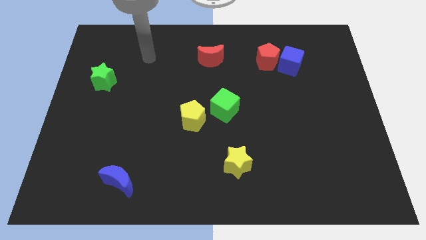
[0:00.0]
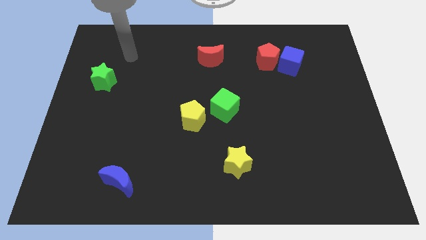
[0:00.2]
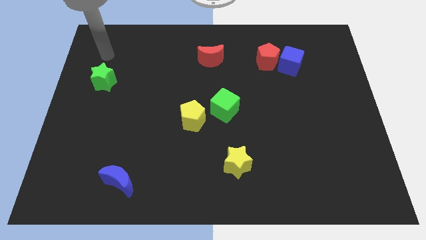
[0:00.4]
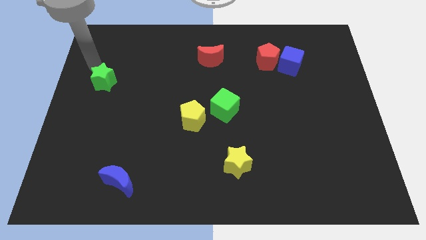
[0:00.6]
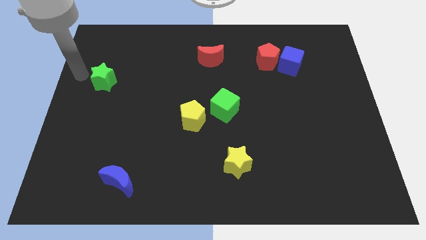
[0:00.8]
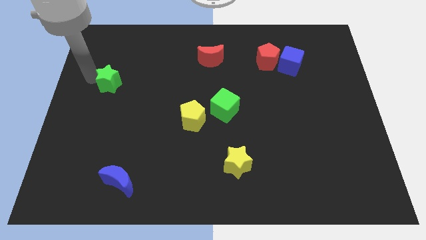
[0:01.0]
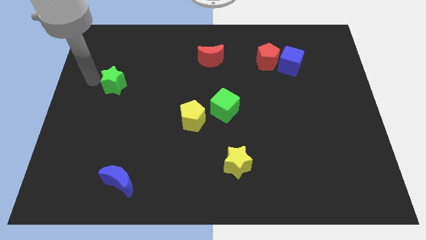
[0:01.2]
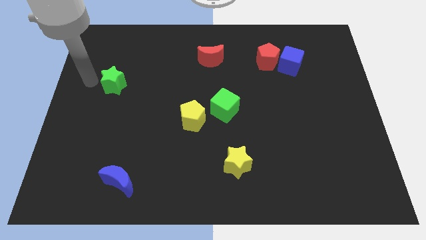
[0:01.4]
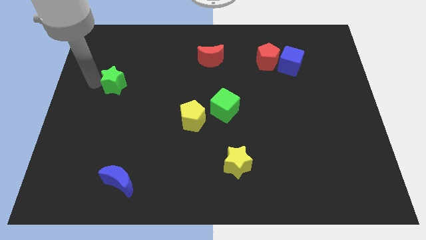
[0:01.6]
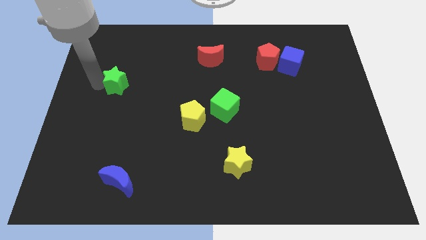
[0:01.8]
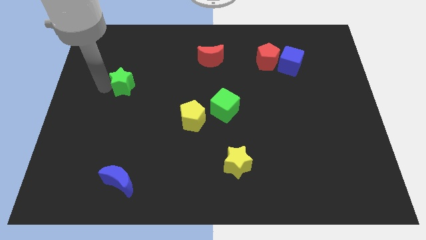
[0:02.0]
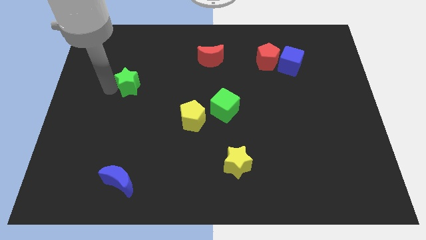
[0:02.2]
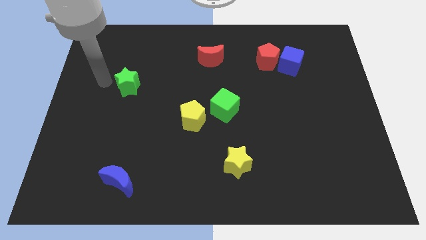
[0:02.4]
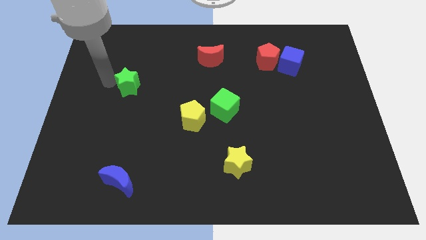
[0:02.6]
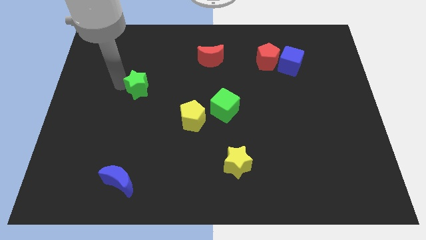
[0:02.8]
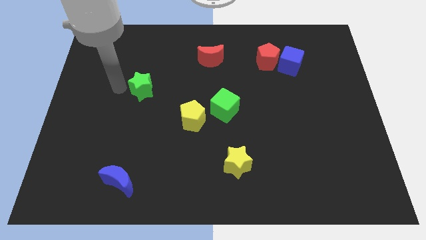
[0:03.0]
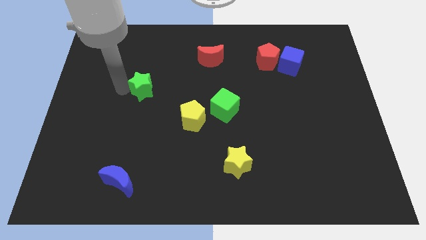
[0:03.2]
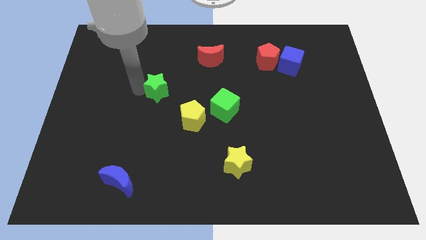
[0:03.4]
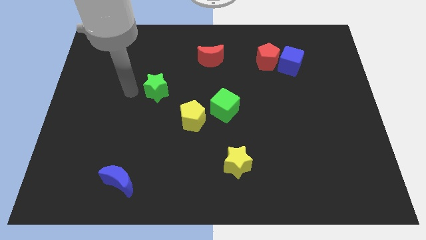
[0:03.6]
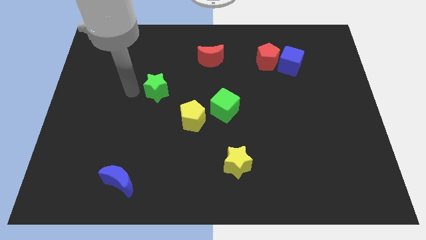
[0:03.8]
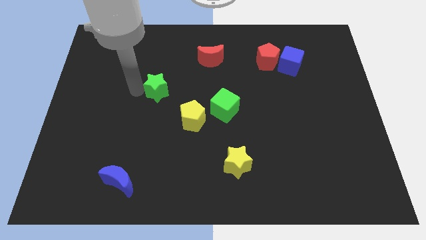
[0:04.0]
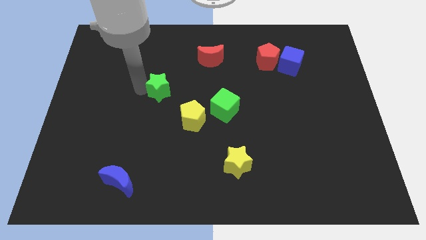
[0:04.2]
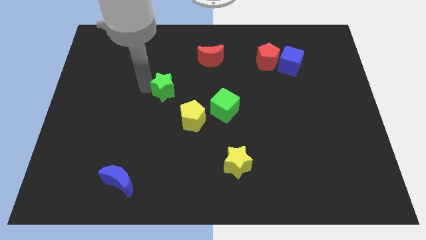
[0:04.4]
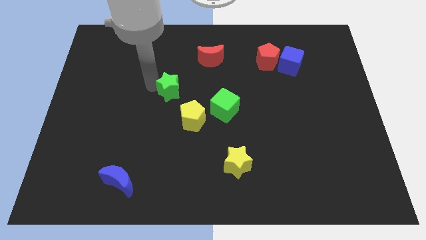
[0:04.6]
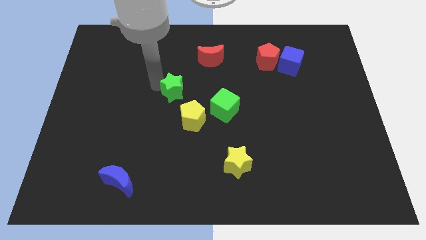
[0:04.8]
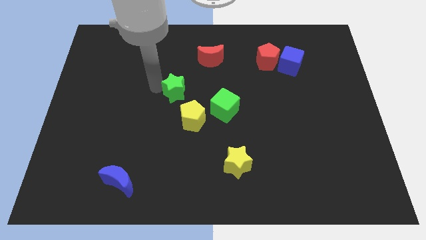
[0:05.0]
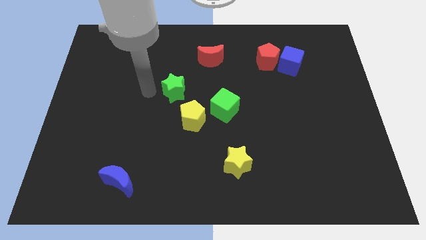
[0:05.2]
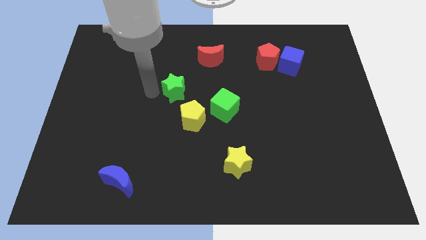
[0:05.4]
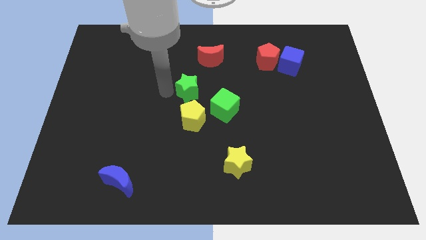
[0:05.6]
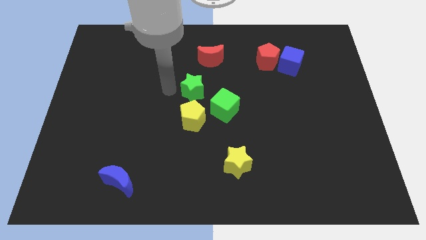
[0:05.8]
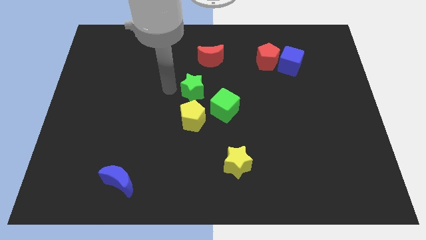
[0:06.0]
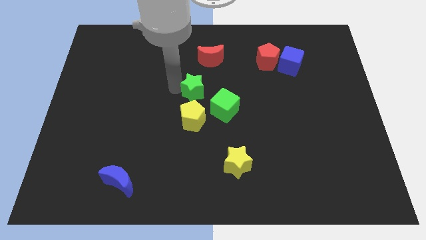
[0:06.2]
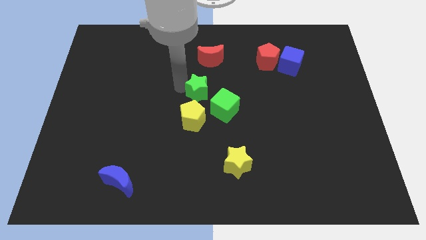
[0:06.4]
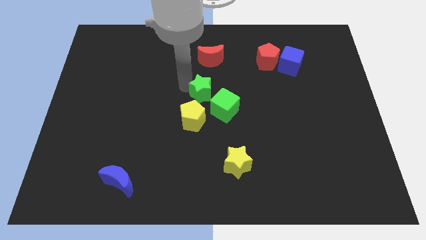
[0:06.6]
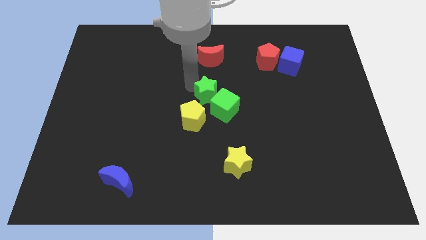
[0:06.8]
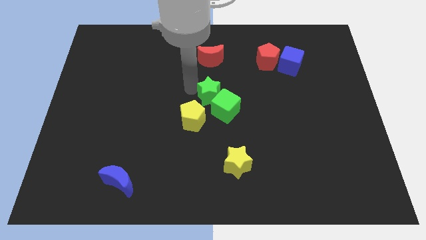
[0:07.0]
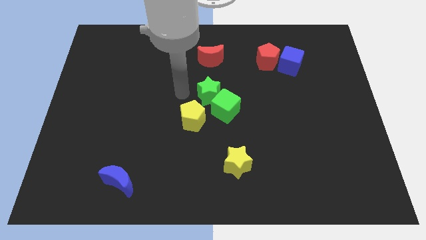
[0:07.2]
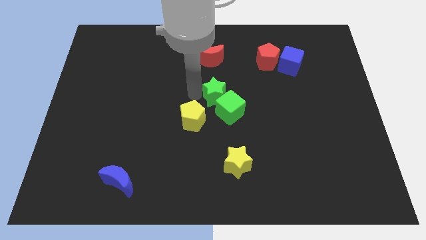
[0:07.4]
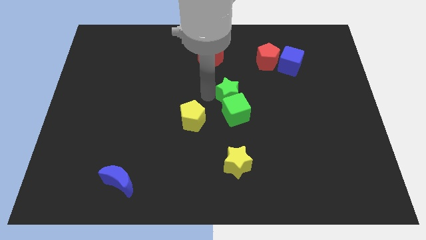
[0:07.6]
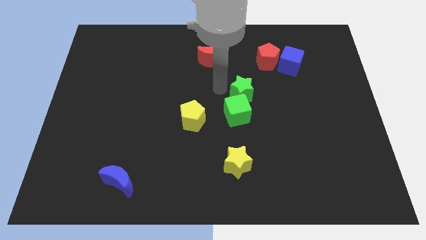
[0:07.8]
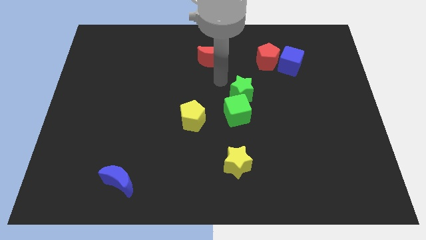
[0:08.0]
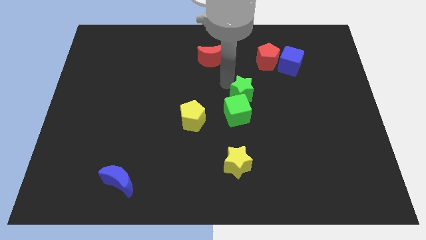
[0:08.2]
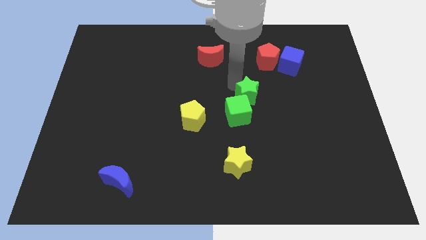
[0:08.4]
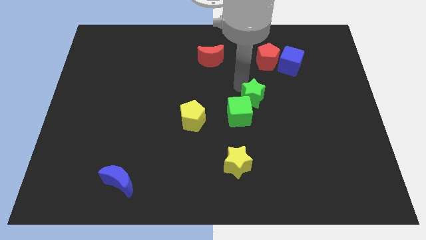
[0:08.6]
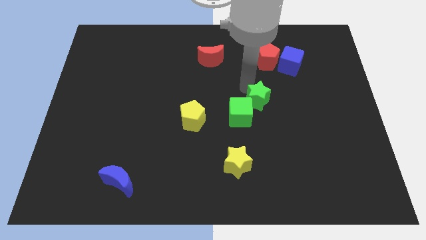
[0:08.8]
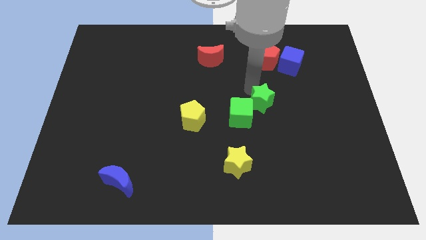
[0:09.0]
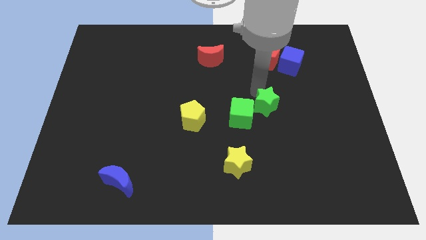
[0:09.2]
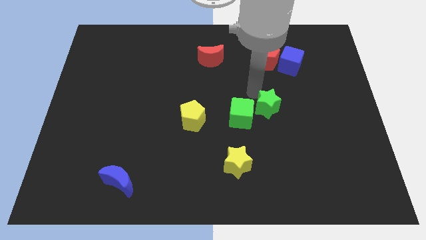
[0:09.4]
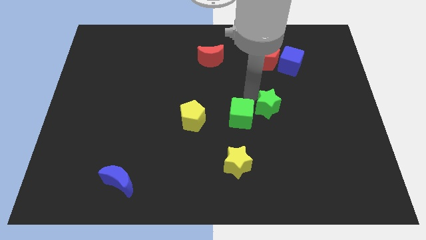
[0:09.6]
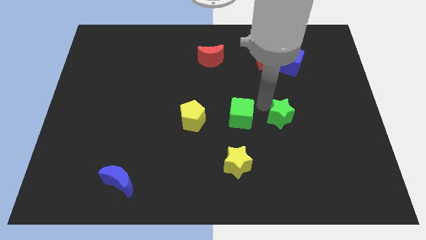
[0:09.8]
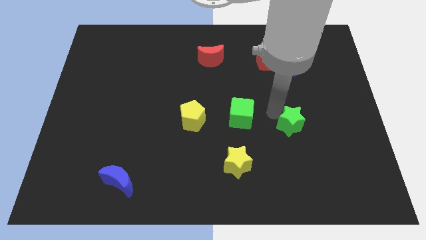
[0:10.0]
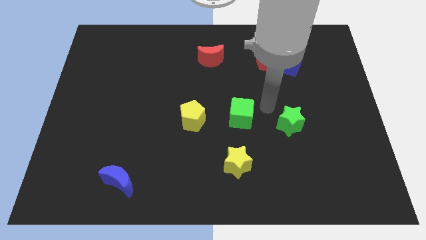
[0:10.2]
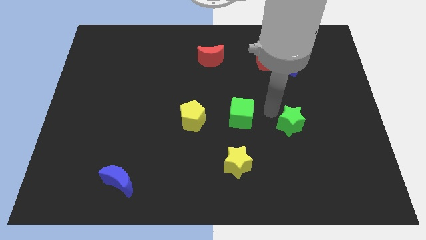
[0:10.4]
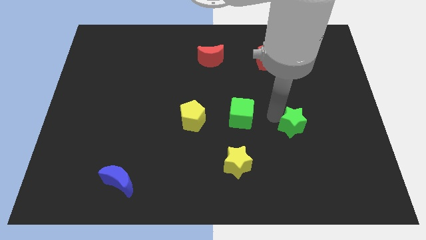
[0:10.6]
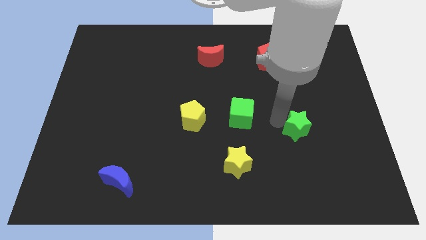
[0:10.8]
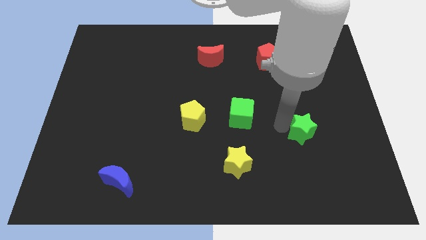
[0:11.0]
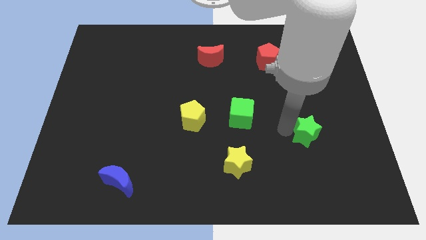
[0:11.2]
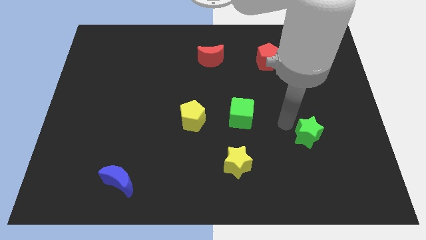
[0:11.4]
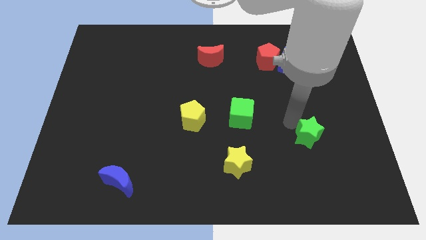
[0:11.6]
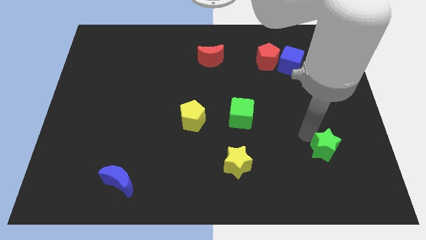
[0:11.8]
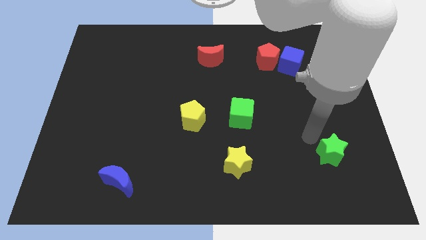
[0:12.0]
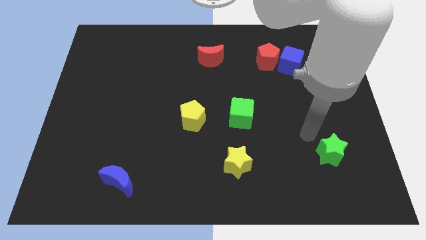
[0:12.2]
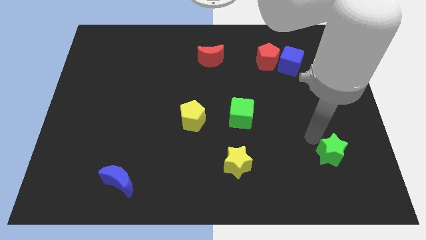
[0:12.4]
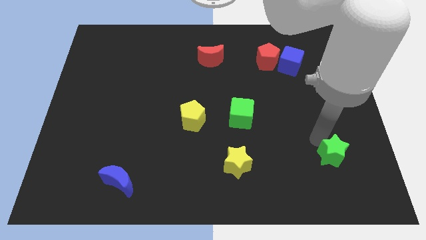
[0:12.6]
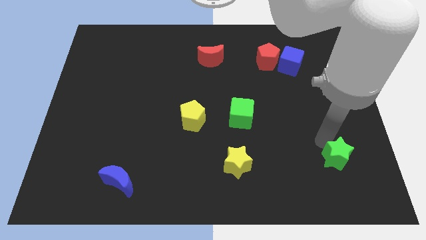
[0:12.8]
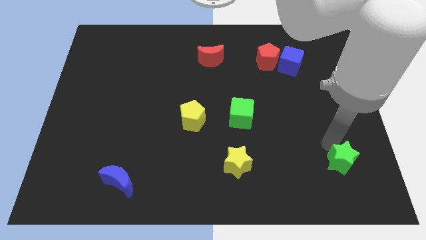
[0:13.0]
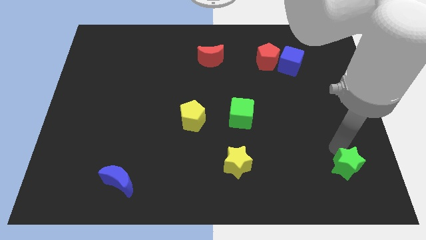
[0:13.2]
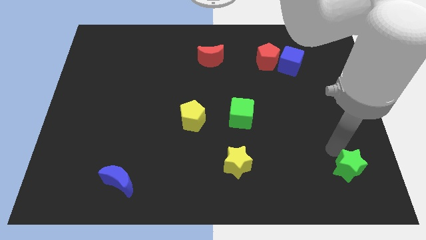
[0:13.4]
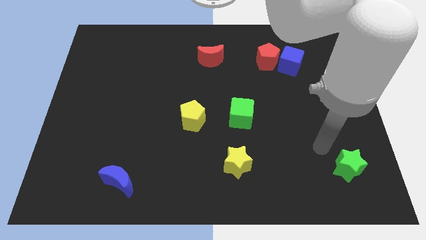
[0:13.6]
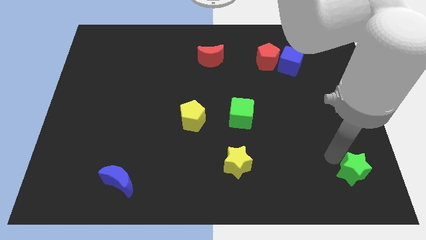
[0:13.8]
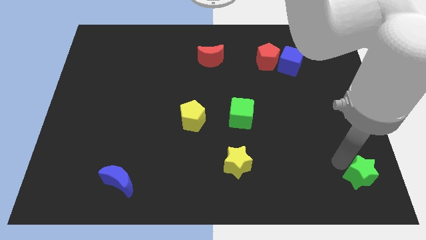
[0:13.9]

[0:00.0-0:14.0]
push the green star to the lower right corner
